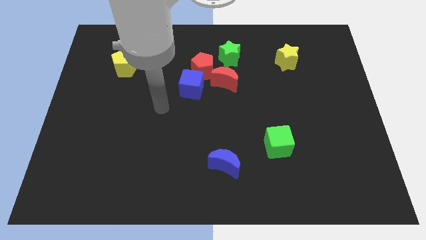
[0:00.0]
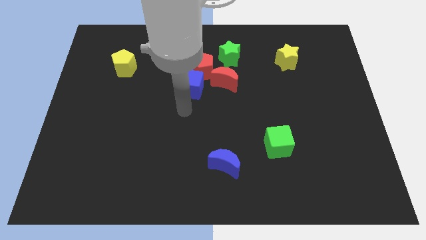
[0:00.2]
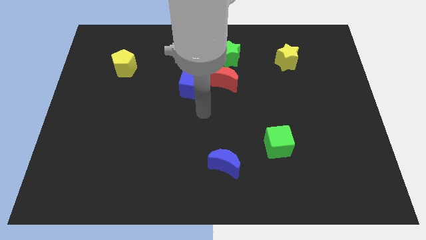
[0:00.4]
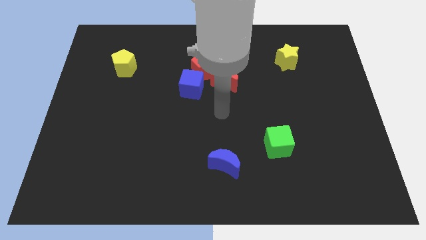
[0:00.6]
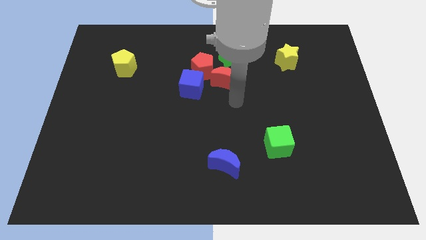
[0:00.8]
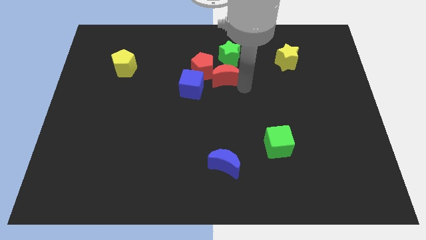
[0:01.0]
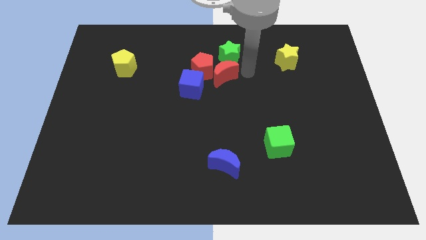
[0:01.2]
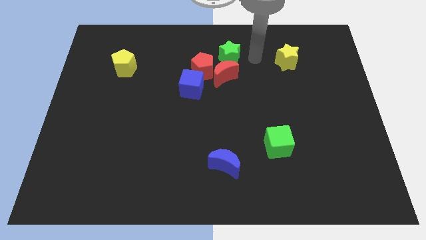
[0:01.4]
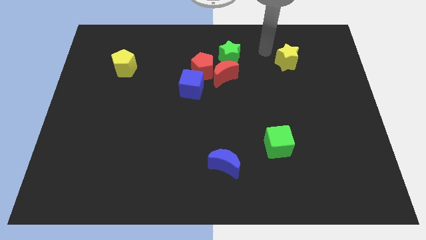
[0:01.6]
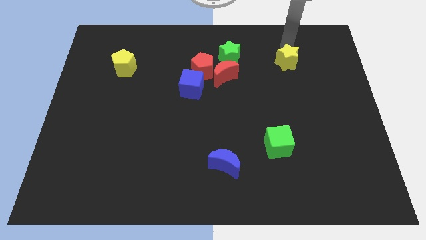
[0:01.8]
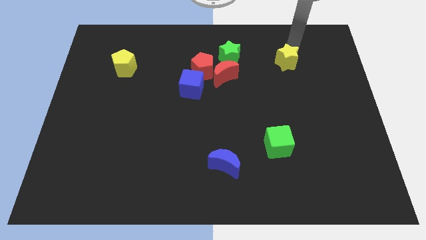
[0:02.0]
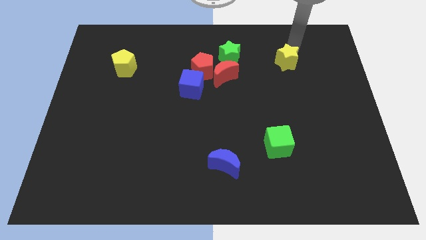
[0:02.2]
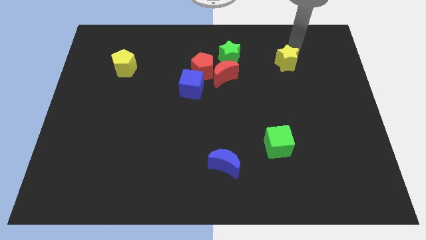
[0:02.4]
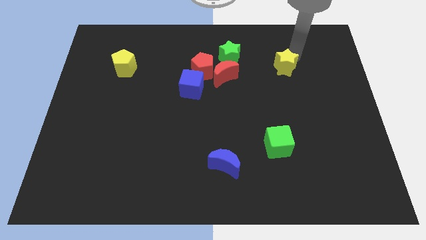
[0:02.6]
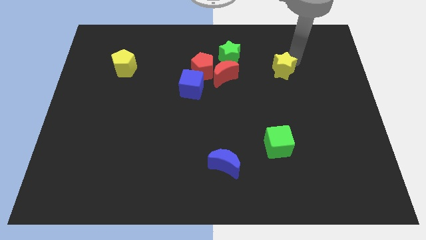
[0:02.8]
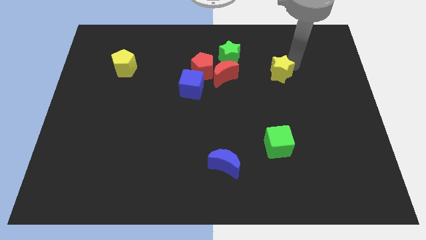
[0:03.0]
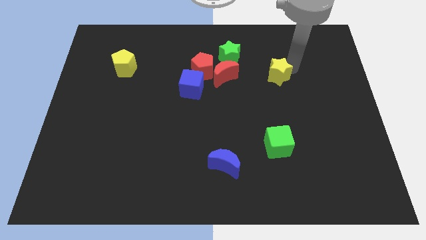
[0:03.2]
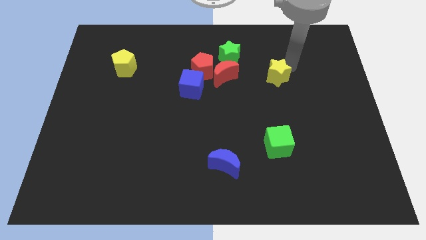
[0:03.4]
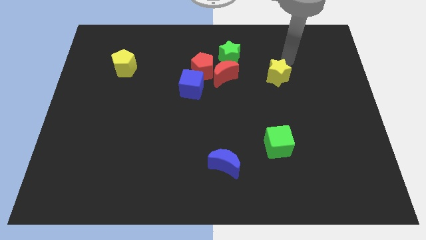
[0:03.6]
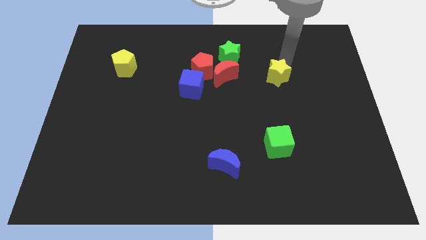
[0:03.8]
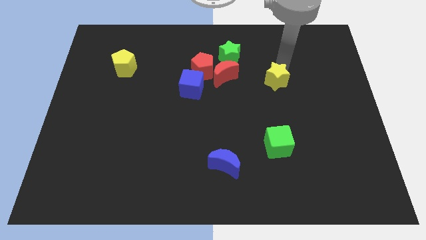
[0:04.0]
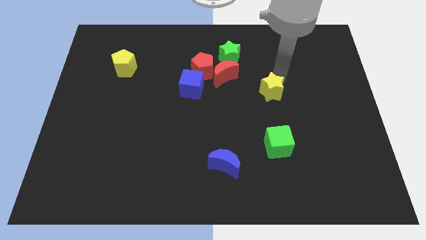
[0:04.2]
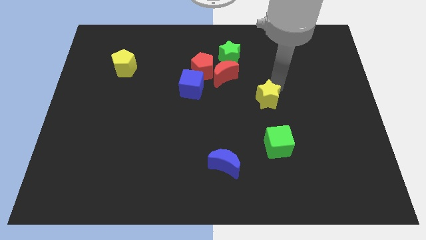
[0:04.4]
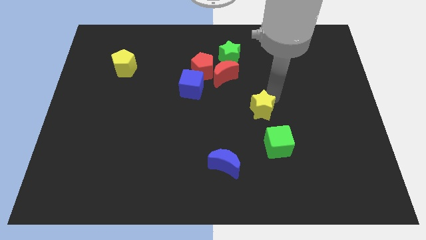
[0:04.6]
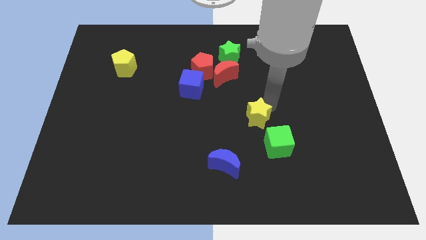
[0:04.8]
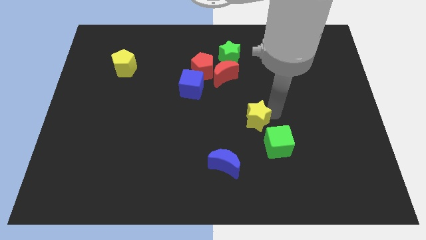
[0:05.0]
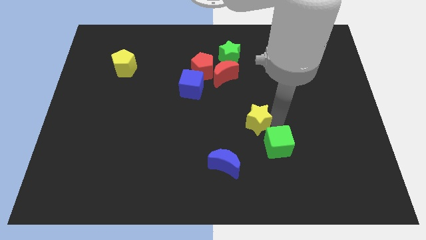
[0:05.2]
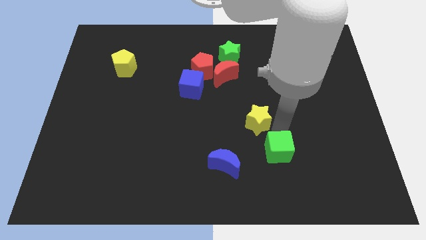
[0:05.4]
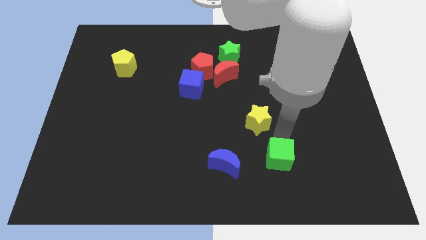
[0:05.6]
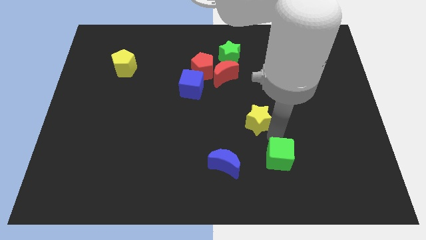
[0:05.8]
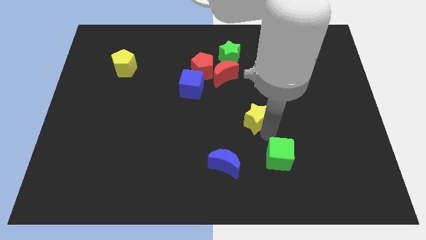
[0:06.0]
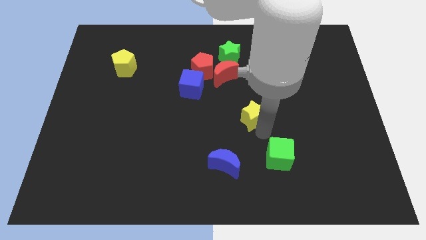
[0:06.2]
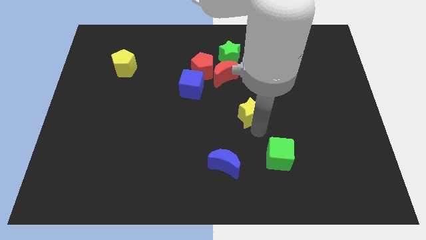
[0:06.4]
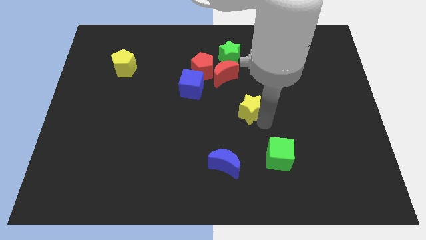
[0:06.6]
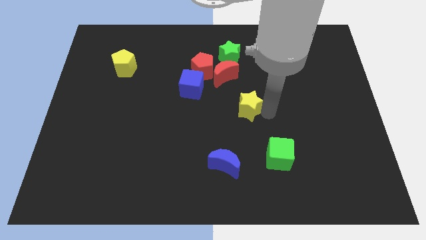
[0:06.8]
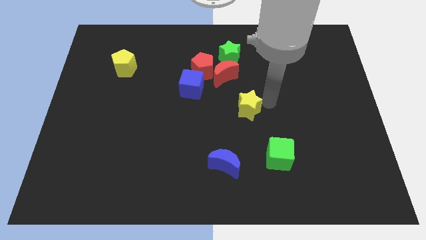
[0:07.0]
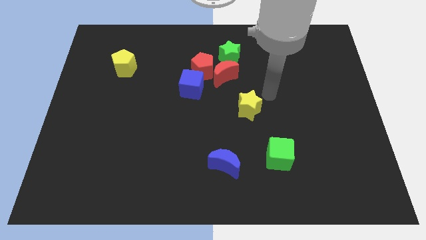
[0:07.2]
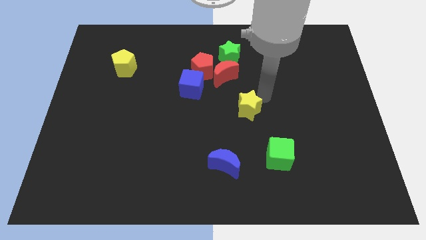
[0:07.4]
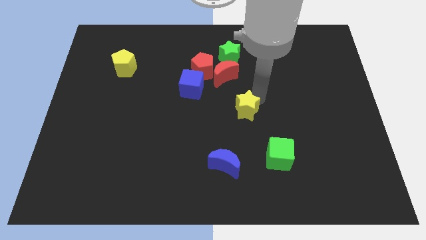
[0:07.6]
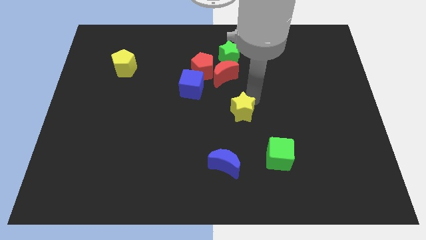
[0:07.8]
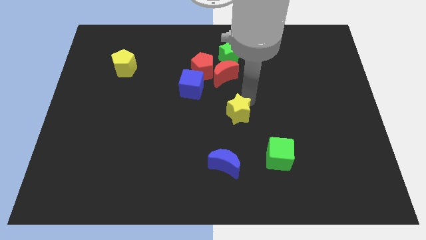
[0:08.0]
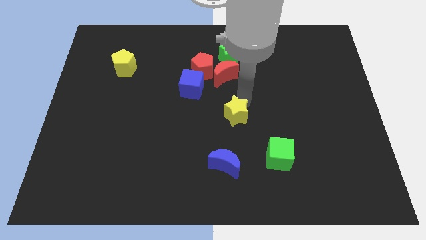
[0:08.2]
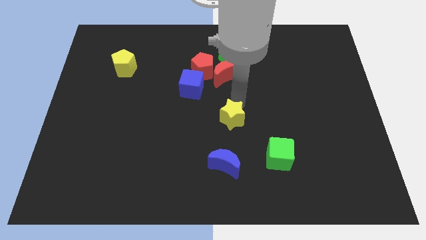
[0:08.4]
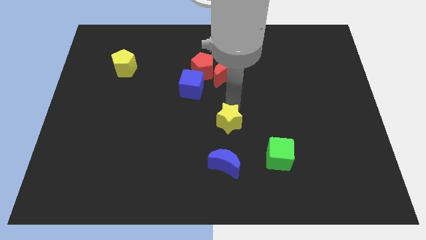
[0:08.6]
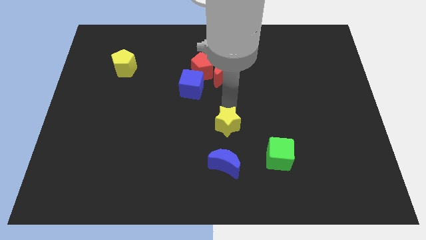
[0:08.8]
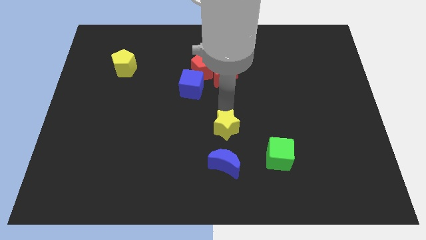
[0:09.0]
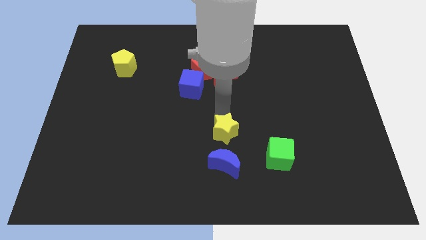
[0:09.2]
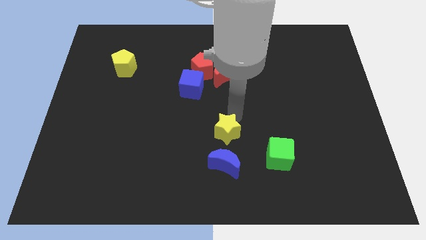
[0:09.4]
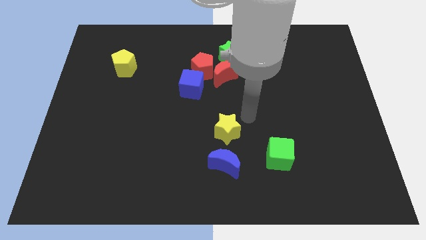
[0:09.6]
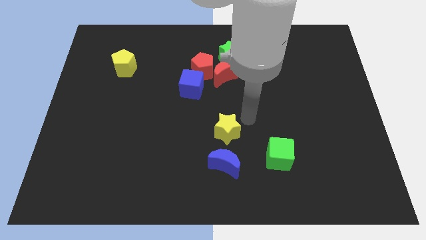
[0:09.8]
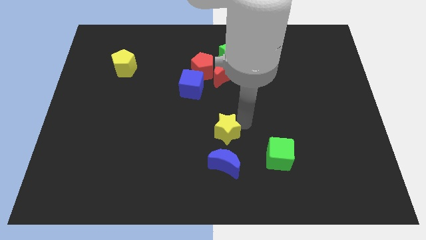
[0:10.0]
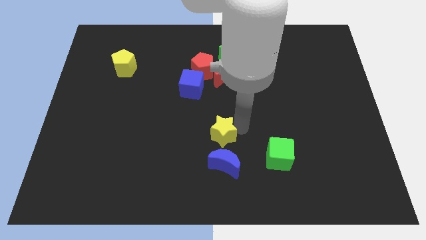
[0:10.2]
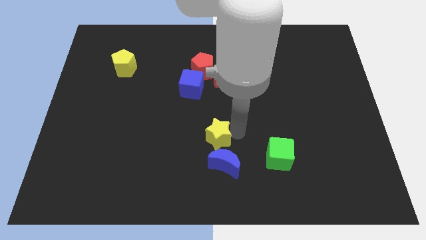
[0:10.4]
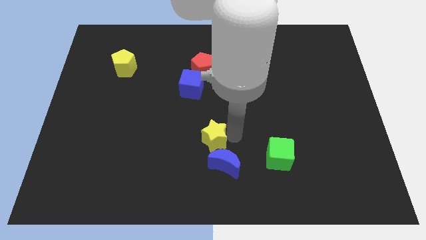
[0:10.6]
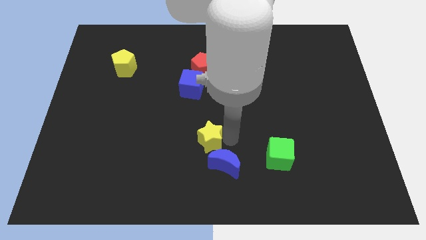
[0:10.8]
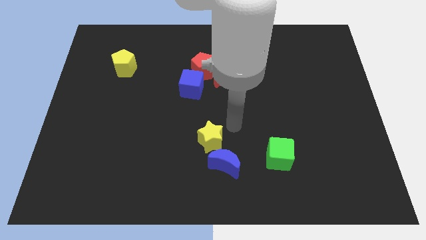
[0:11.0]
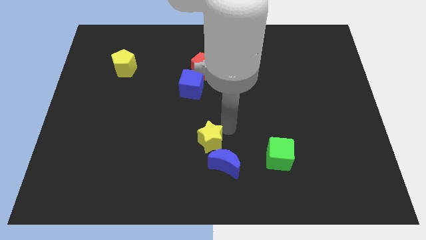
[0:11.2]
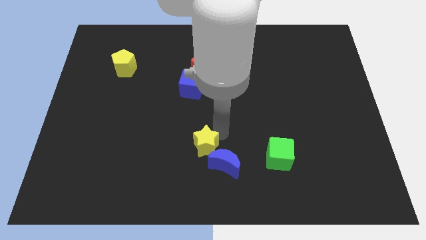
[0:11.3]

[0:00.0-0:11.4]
push the yellow star to the left of the blue moon

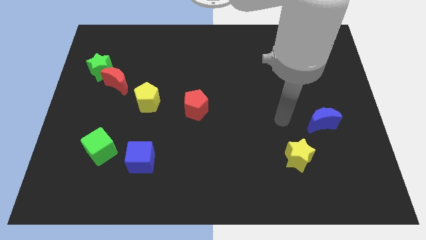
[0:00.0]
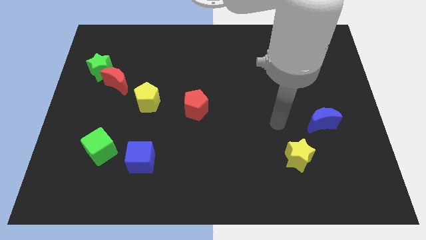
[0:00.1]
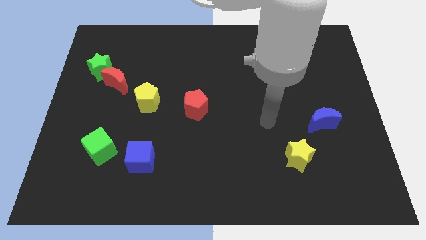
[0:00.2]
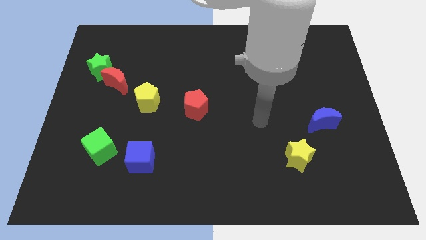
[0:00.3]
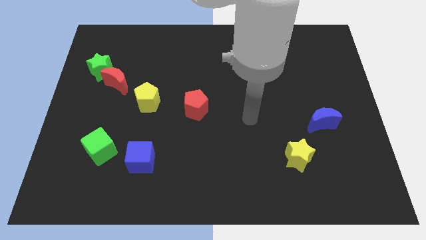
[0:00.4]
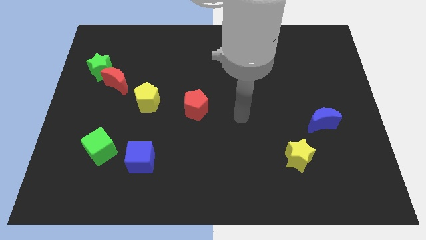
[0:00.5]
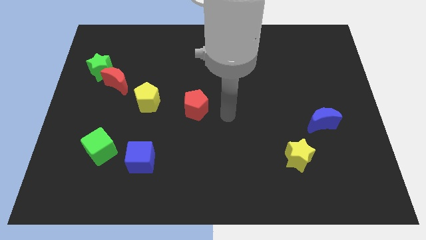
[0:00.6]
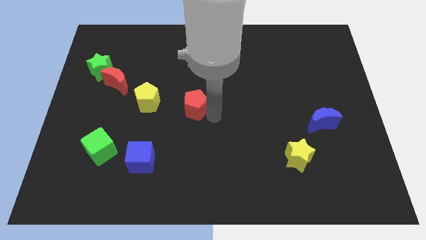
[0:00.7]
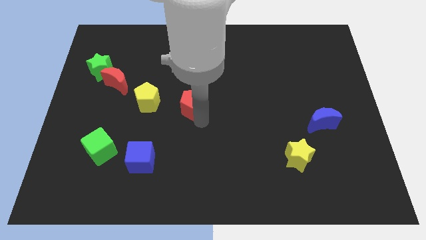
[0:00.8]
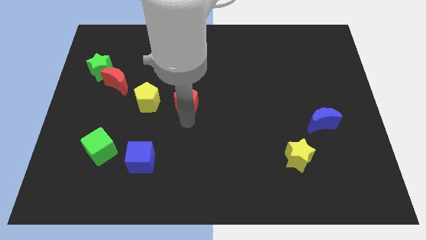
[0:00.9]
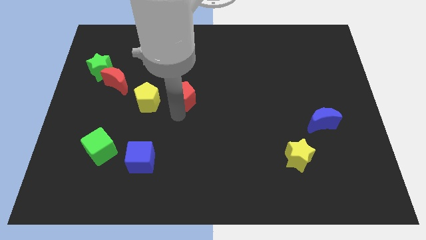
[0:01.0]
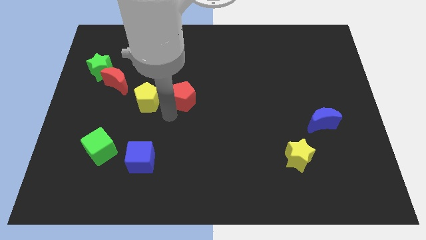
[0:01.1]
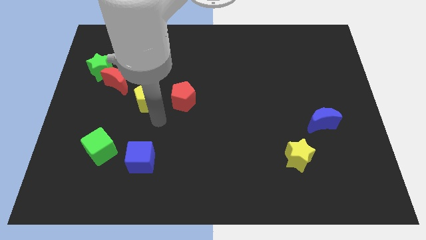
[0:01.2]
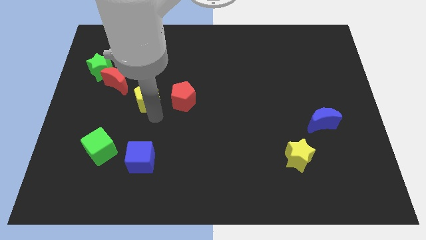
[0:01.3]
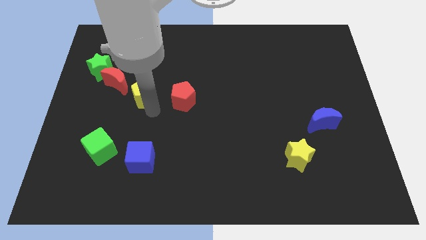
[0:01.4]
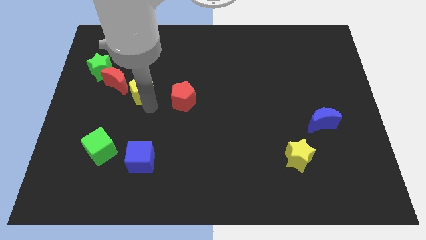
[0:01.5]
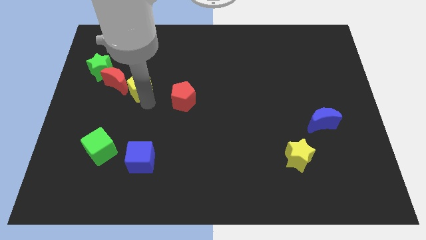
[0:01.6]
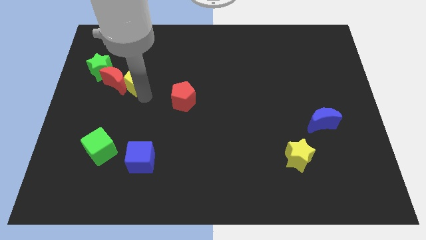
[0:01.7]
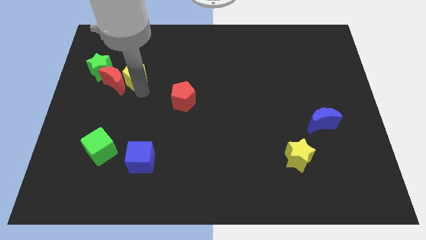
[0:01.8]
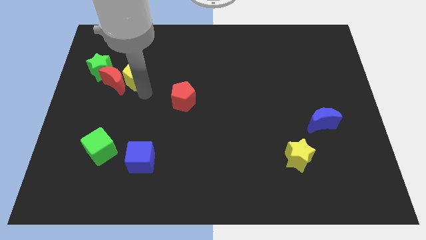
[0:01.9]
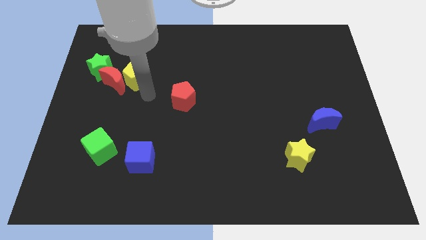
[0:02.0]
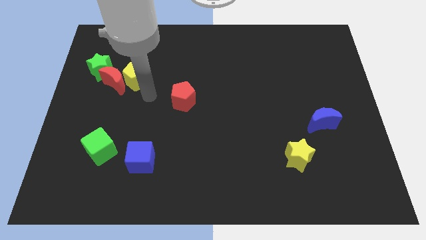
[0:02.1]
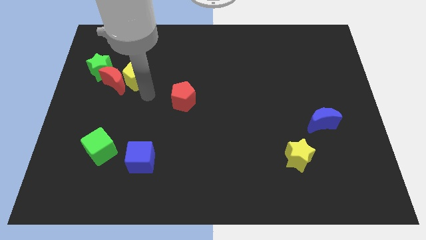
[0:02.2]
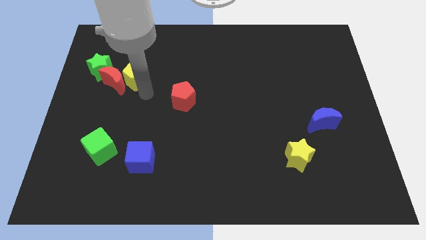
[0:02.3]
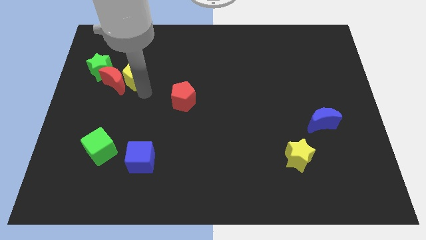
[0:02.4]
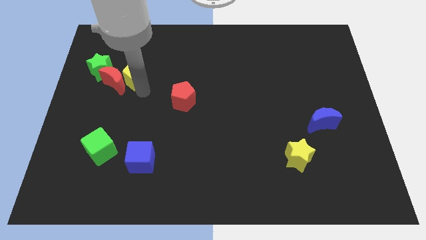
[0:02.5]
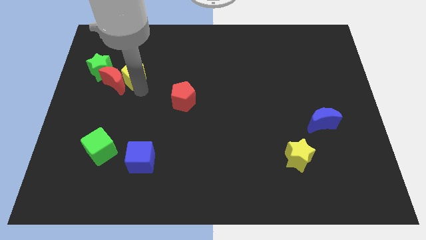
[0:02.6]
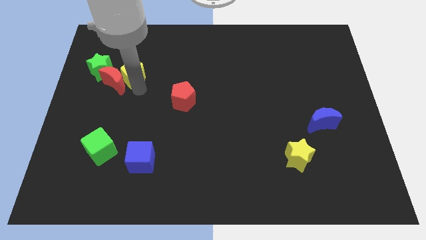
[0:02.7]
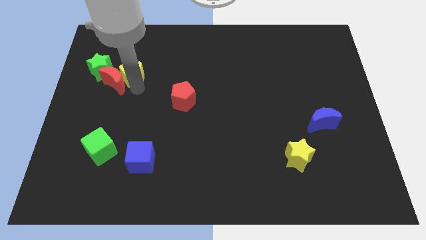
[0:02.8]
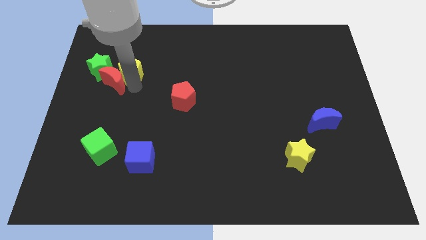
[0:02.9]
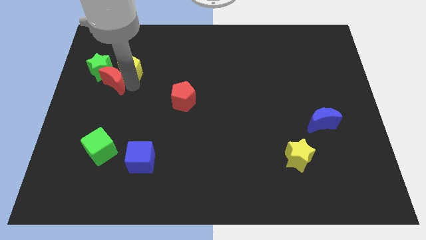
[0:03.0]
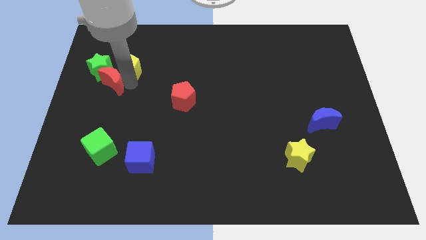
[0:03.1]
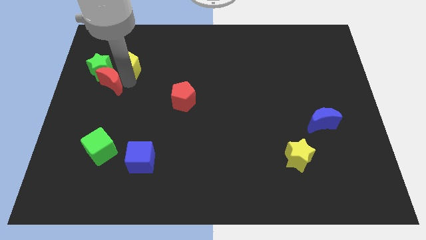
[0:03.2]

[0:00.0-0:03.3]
move the yellow pentagon to the top right of the green star
